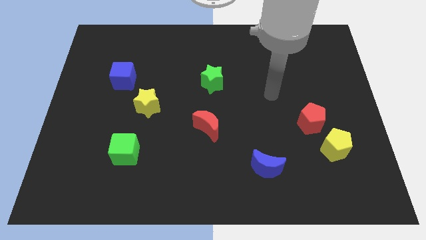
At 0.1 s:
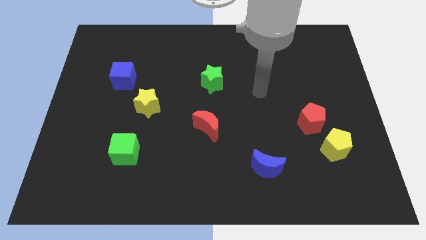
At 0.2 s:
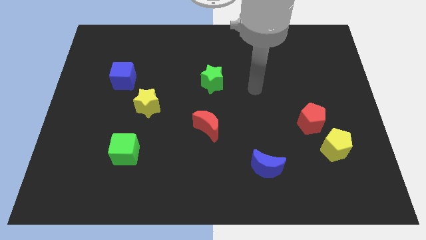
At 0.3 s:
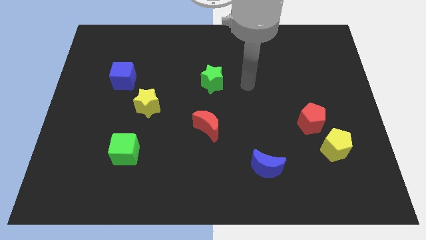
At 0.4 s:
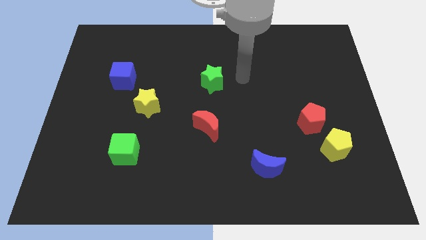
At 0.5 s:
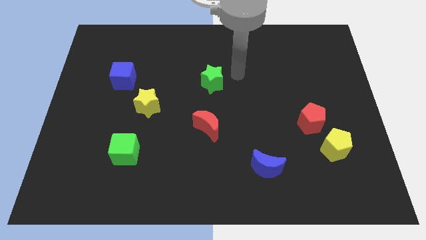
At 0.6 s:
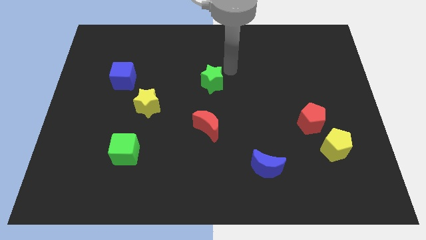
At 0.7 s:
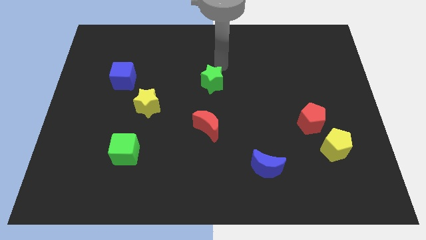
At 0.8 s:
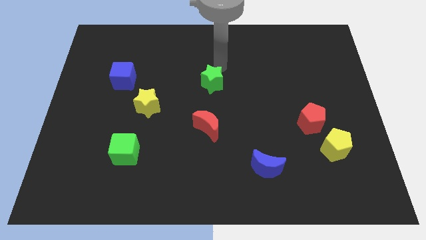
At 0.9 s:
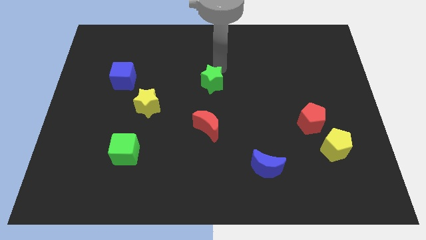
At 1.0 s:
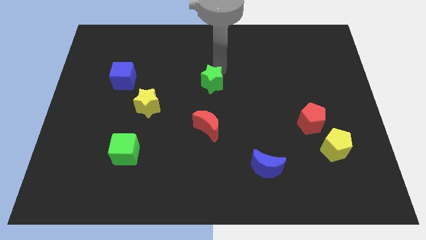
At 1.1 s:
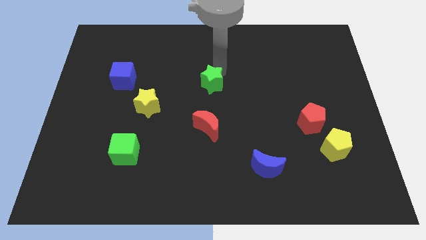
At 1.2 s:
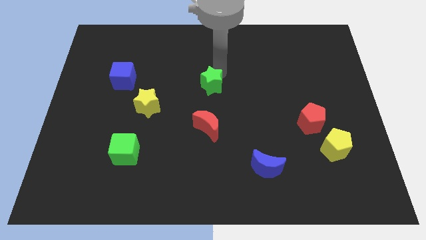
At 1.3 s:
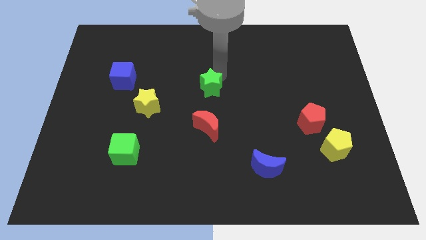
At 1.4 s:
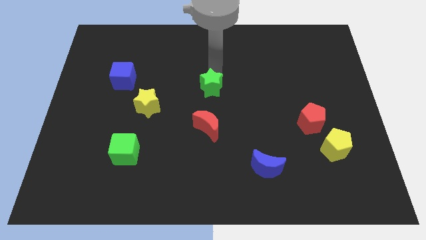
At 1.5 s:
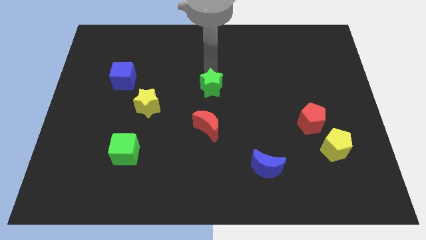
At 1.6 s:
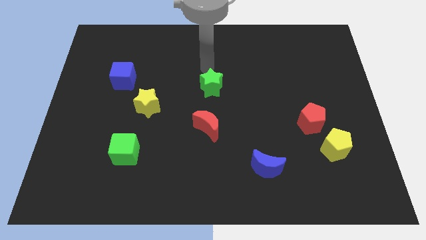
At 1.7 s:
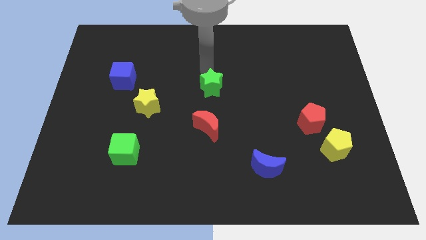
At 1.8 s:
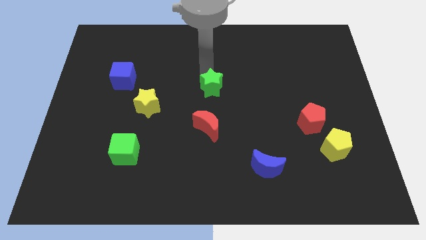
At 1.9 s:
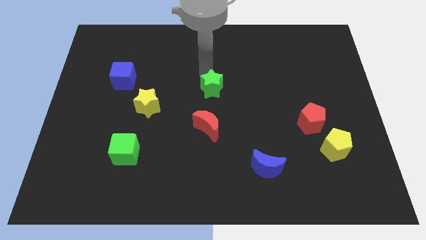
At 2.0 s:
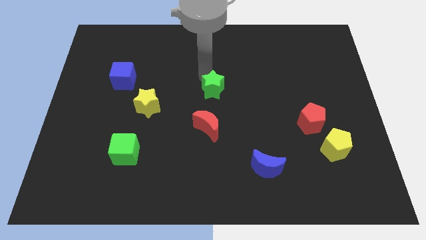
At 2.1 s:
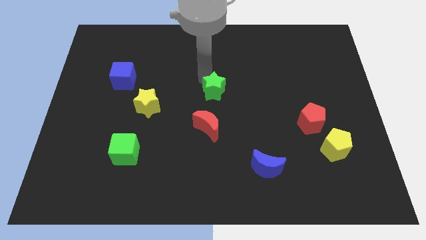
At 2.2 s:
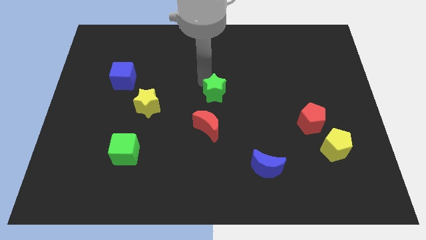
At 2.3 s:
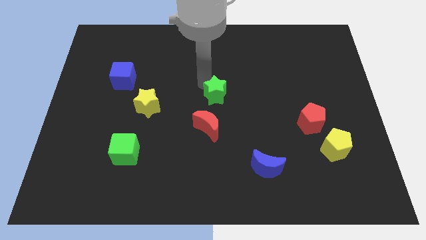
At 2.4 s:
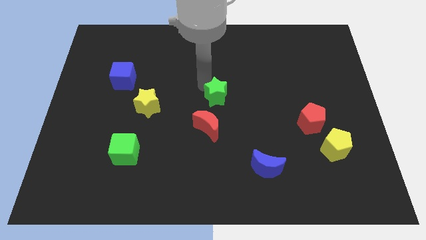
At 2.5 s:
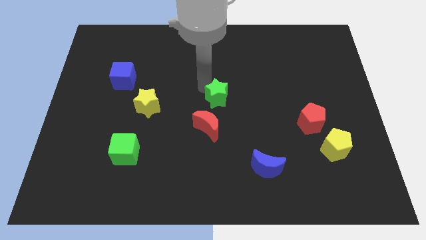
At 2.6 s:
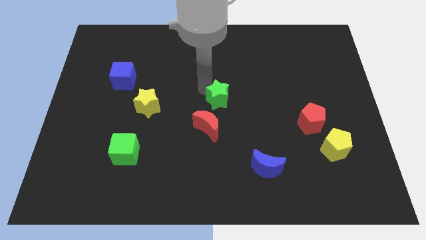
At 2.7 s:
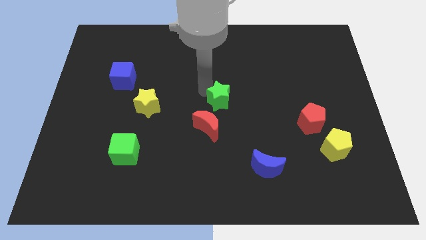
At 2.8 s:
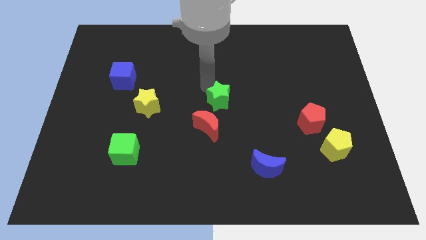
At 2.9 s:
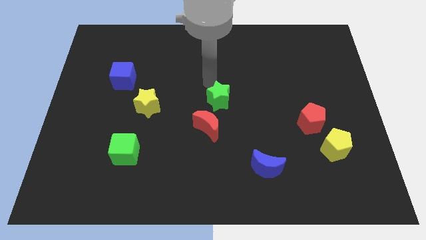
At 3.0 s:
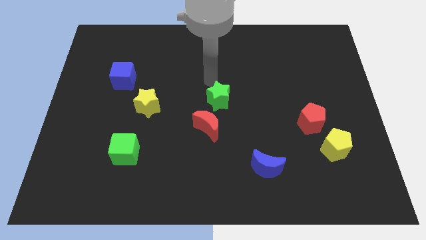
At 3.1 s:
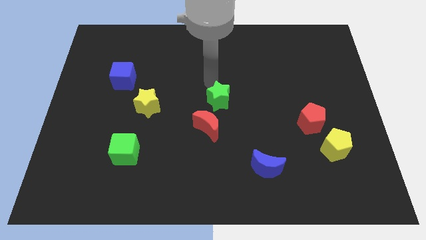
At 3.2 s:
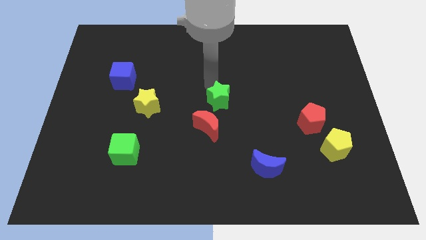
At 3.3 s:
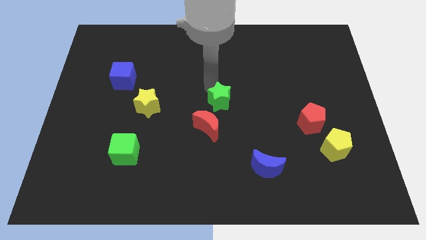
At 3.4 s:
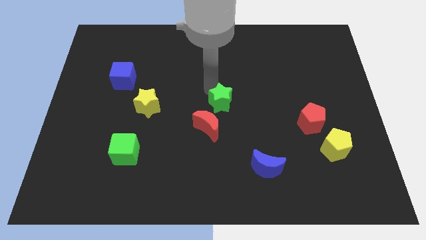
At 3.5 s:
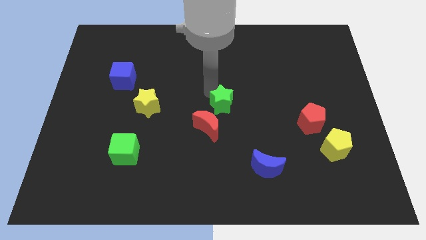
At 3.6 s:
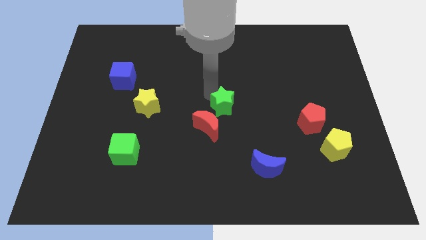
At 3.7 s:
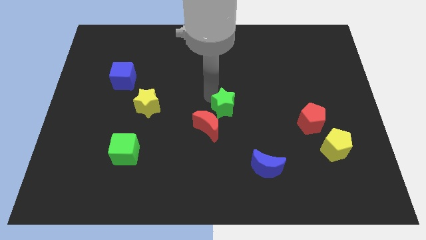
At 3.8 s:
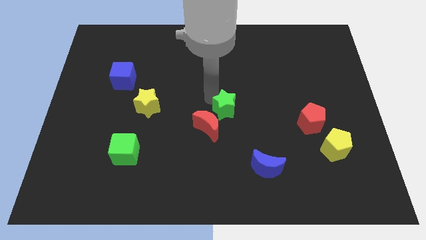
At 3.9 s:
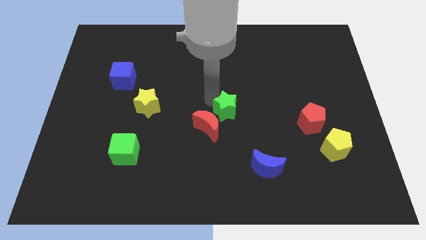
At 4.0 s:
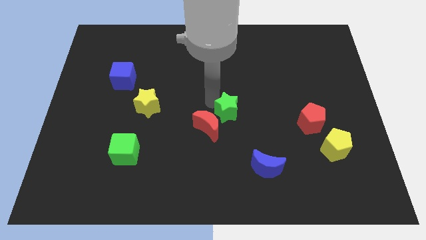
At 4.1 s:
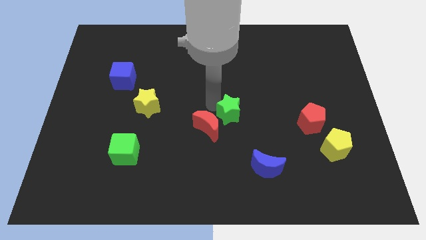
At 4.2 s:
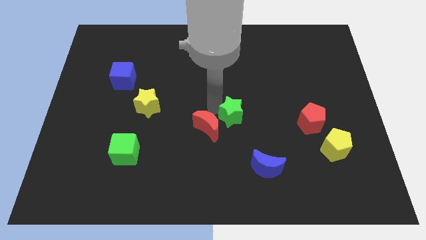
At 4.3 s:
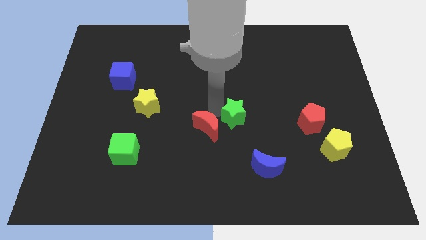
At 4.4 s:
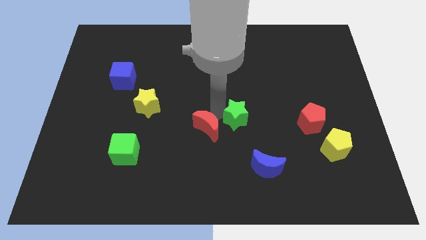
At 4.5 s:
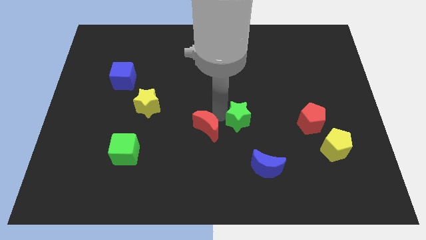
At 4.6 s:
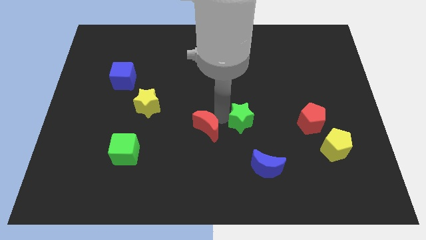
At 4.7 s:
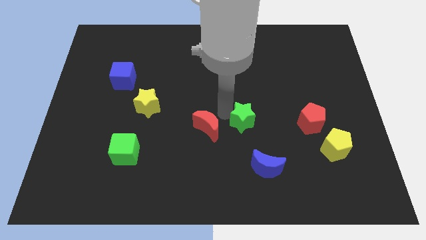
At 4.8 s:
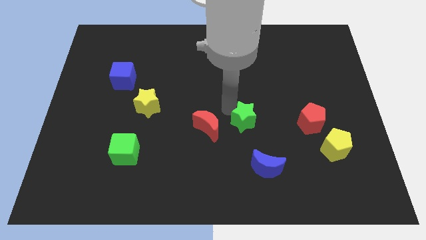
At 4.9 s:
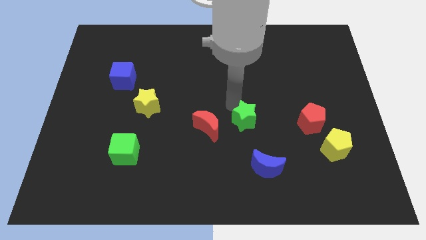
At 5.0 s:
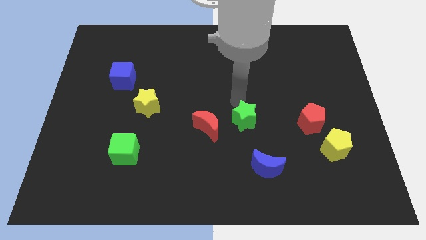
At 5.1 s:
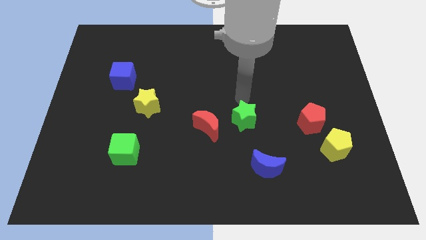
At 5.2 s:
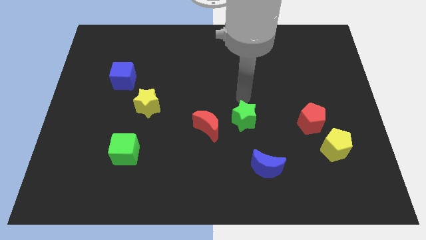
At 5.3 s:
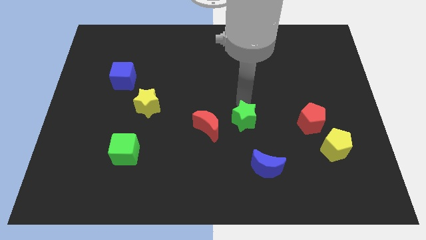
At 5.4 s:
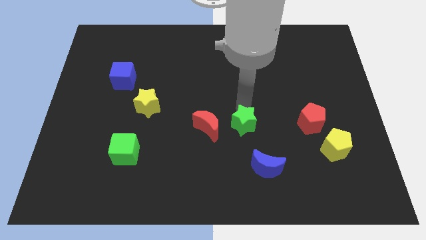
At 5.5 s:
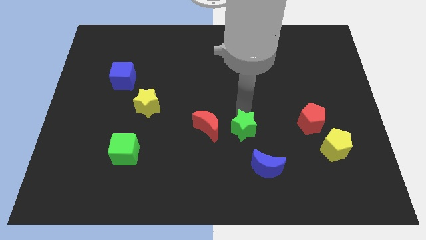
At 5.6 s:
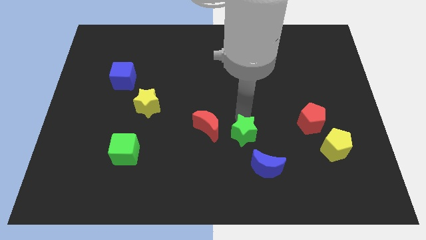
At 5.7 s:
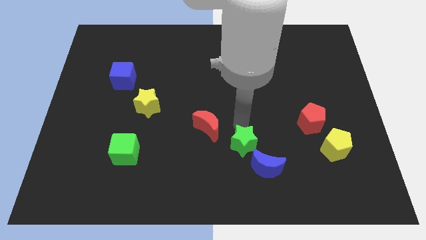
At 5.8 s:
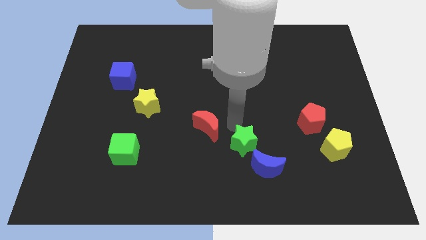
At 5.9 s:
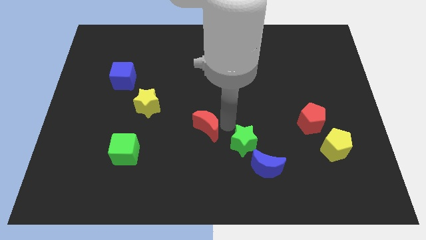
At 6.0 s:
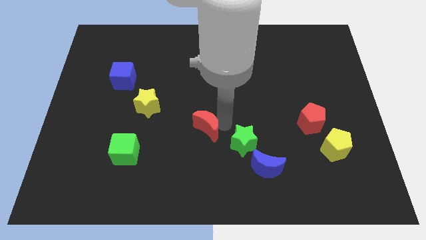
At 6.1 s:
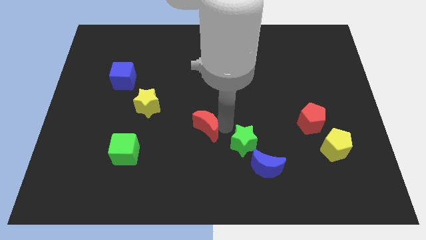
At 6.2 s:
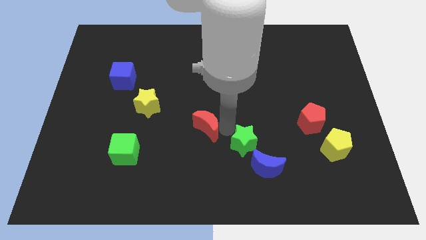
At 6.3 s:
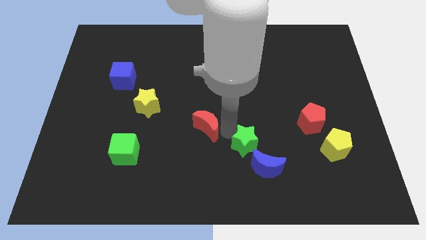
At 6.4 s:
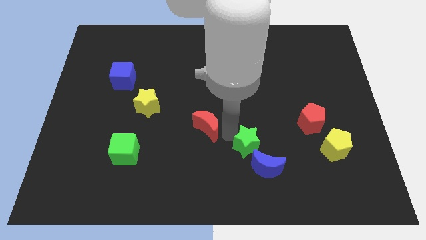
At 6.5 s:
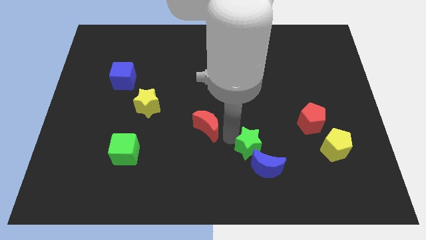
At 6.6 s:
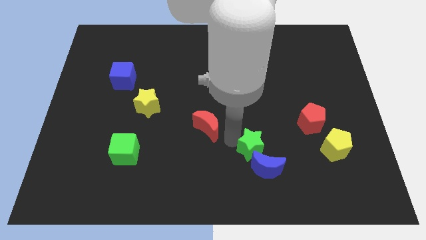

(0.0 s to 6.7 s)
slide the green star next to the blue moon
